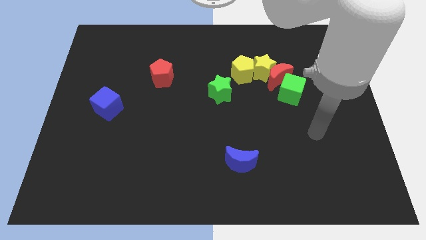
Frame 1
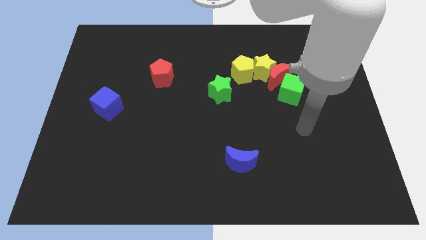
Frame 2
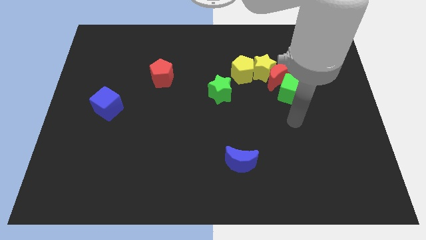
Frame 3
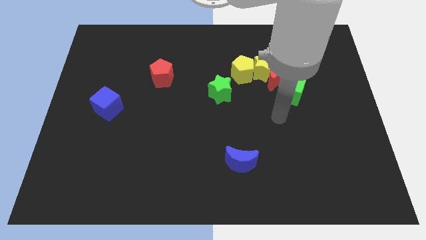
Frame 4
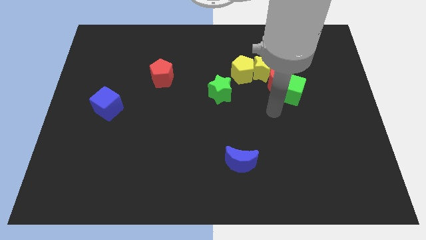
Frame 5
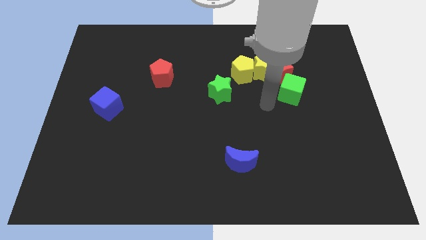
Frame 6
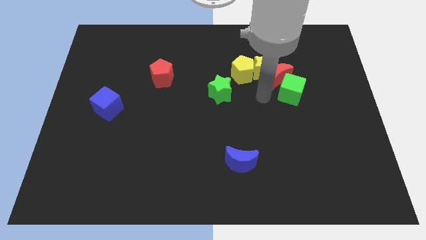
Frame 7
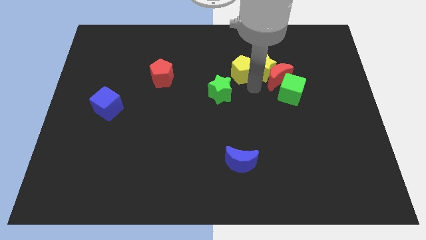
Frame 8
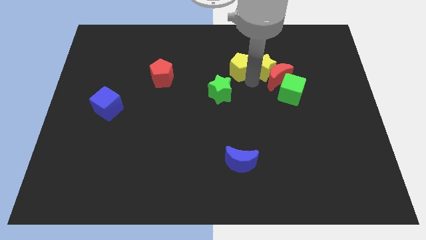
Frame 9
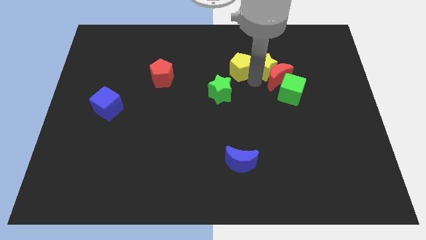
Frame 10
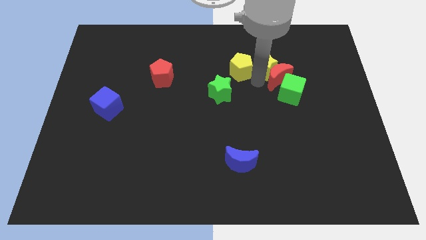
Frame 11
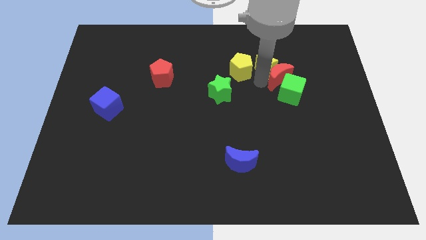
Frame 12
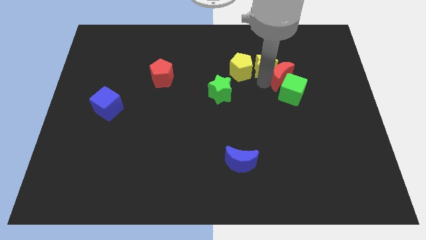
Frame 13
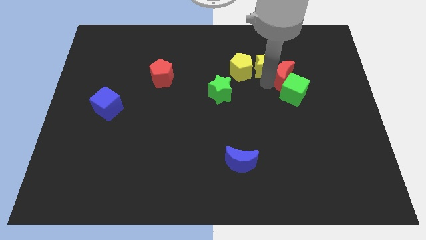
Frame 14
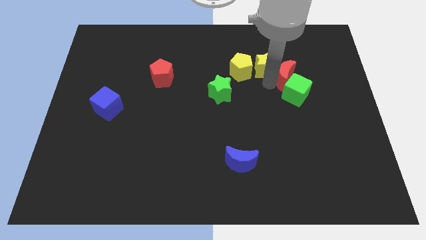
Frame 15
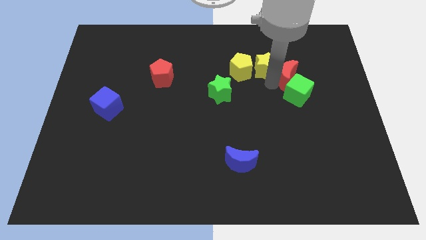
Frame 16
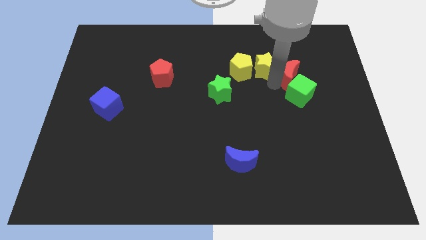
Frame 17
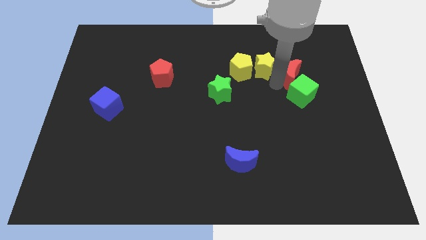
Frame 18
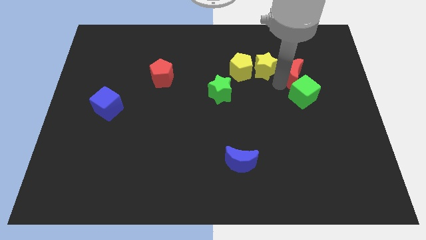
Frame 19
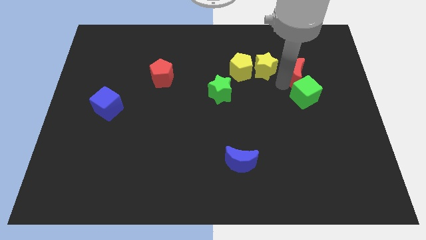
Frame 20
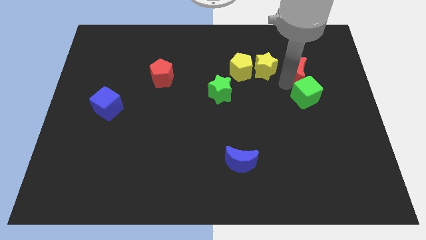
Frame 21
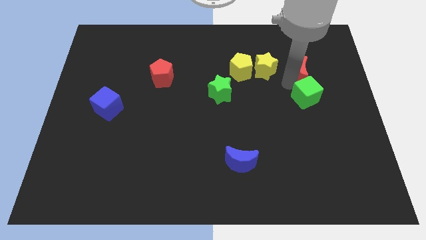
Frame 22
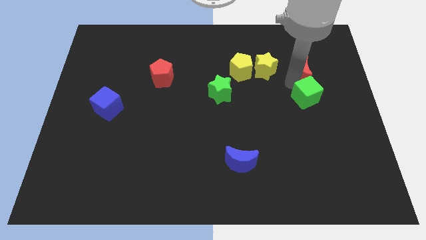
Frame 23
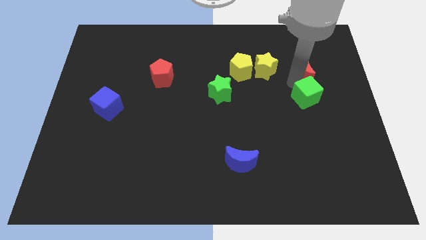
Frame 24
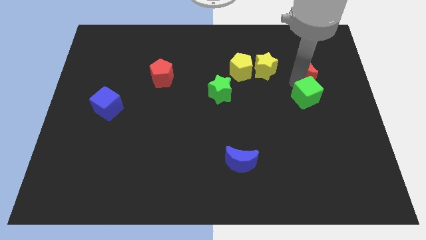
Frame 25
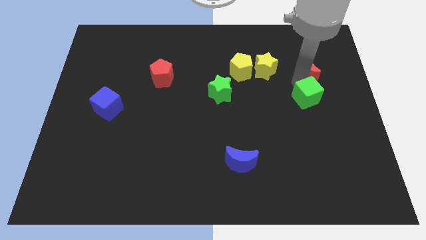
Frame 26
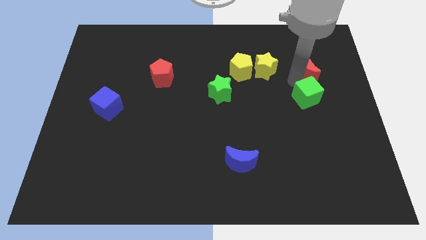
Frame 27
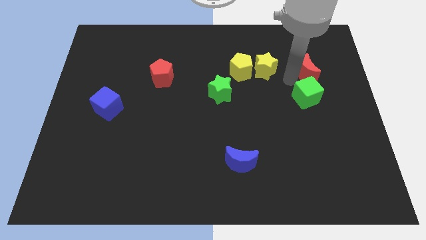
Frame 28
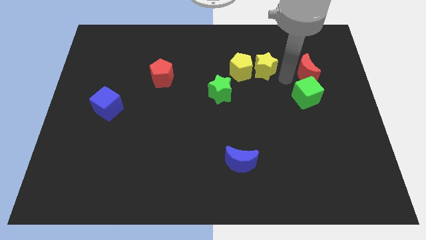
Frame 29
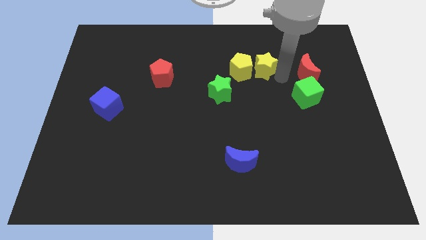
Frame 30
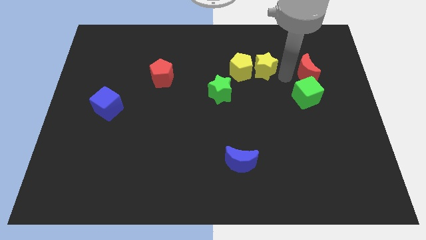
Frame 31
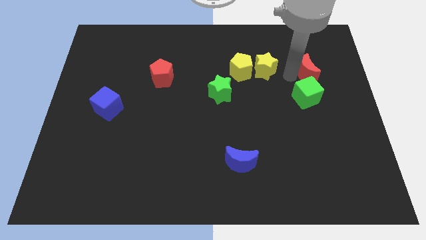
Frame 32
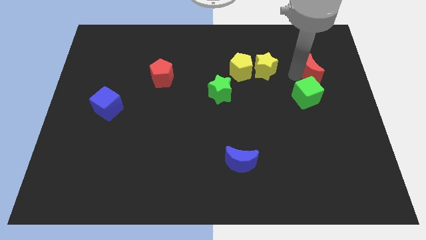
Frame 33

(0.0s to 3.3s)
pull the red moon apart from the group of blocks

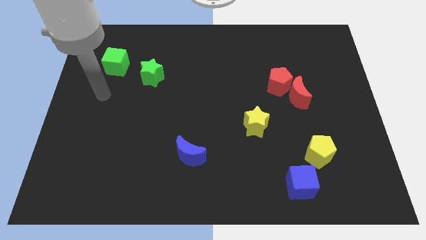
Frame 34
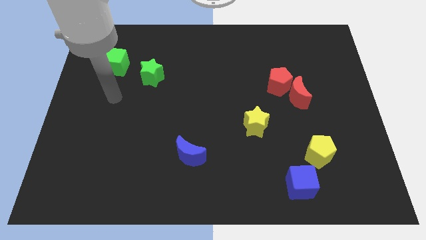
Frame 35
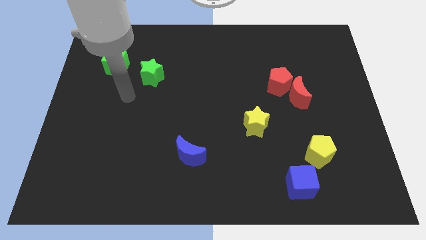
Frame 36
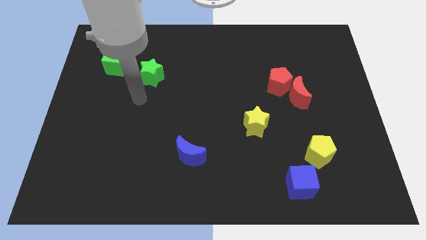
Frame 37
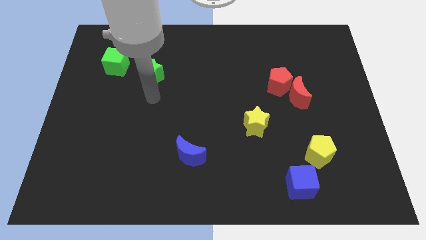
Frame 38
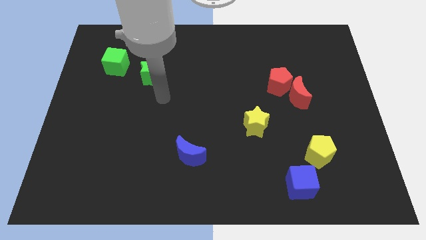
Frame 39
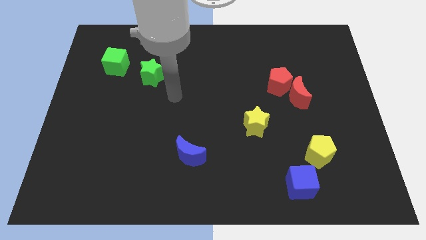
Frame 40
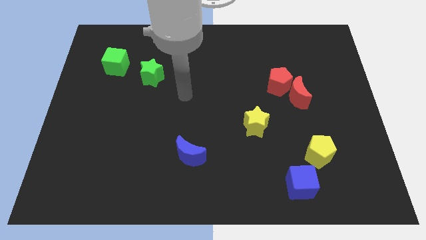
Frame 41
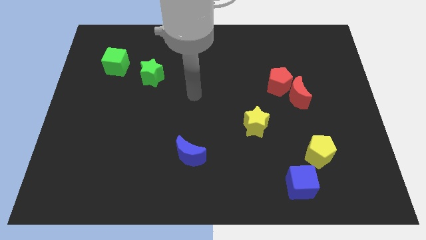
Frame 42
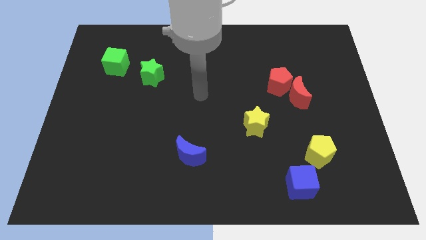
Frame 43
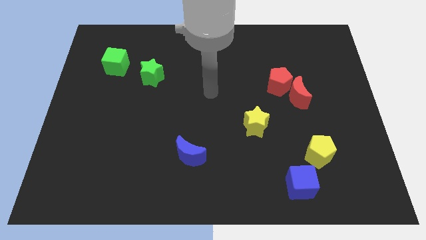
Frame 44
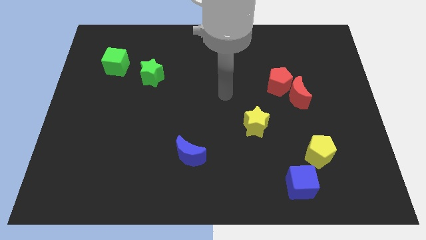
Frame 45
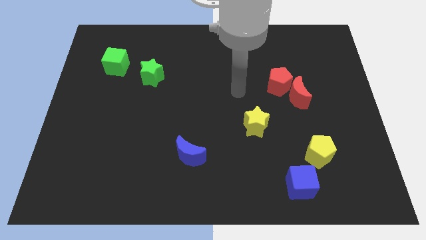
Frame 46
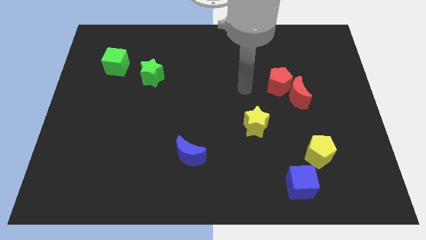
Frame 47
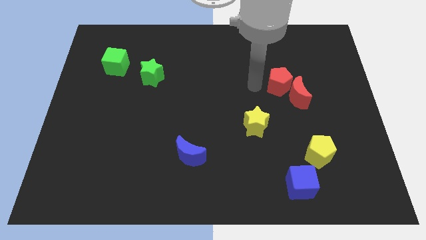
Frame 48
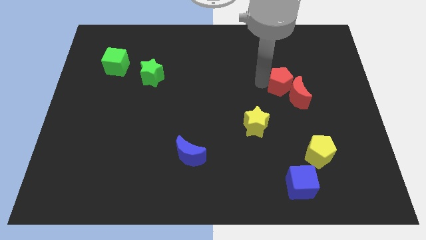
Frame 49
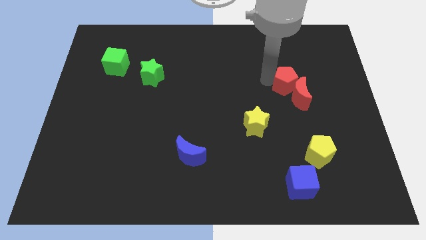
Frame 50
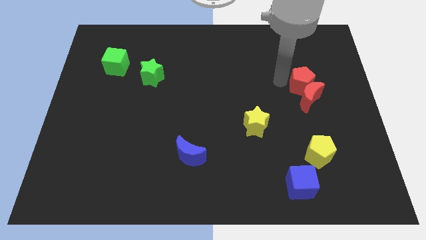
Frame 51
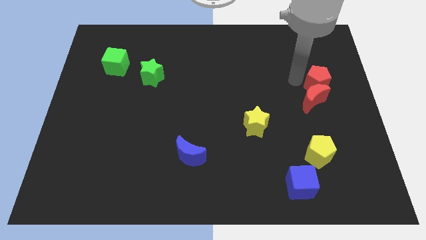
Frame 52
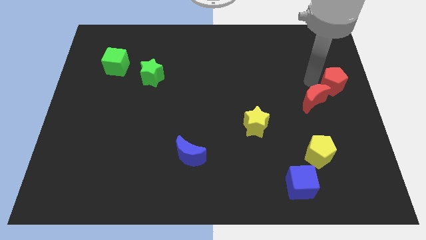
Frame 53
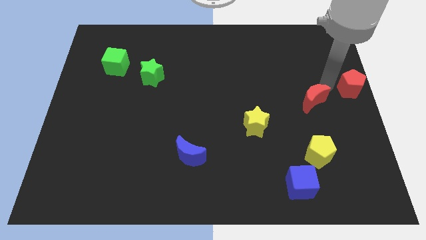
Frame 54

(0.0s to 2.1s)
move the red moon away from the red pentagon

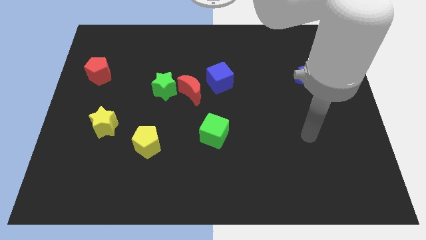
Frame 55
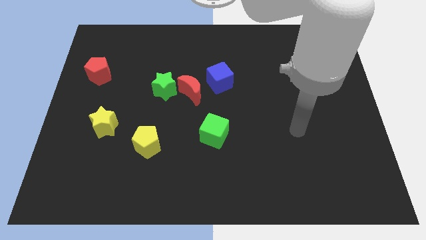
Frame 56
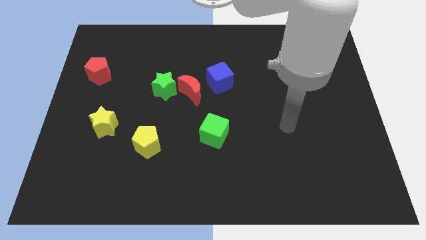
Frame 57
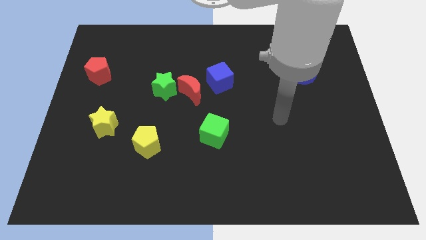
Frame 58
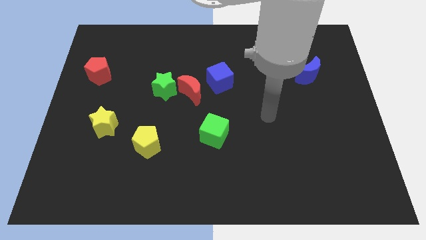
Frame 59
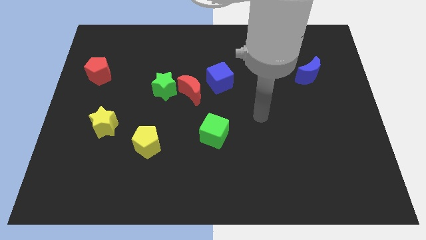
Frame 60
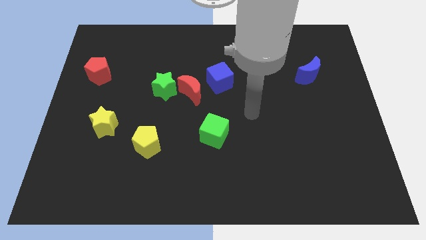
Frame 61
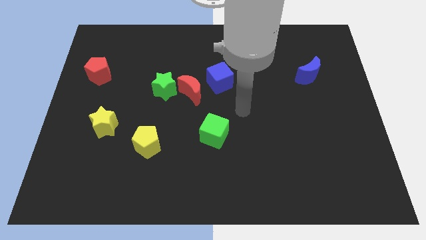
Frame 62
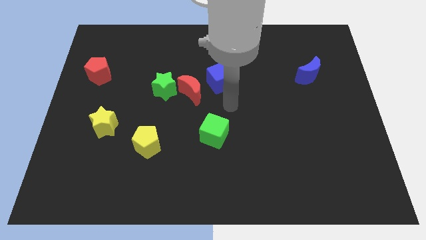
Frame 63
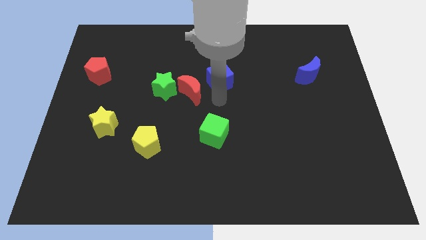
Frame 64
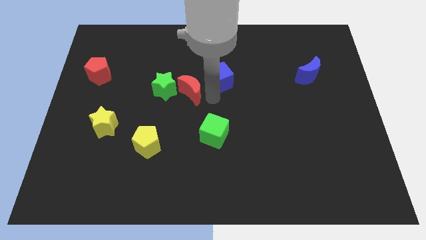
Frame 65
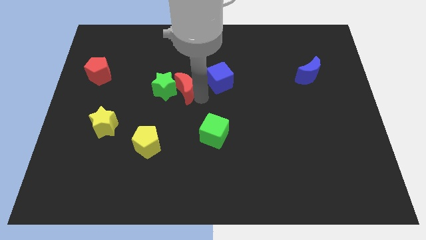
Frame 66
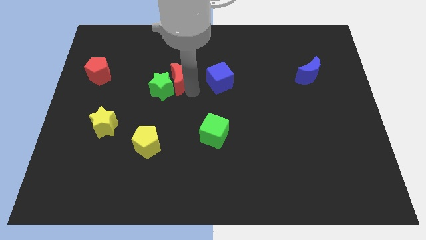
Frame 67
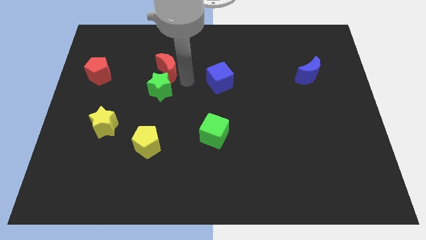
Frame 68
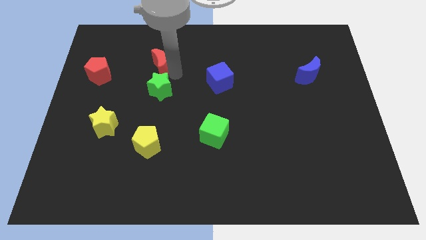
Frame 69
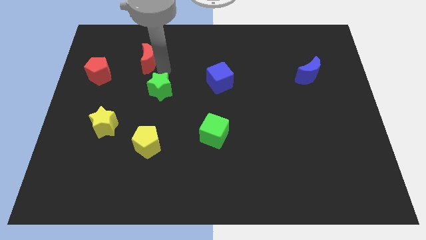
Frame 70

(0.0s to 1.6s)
pull the green star apart from the red moon

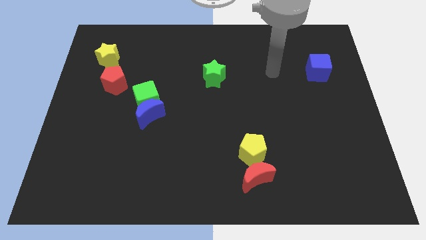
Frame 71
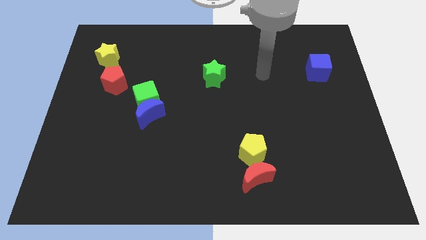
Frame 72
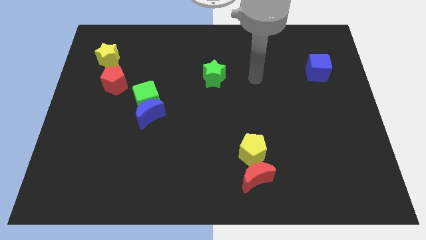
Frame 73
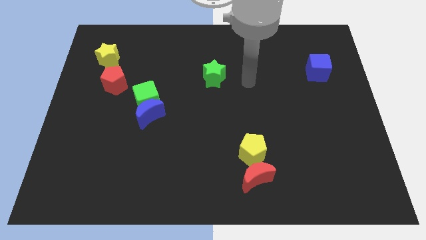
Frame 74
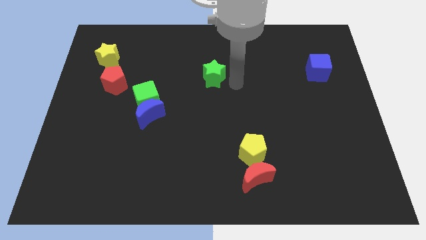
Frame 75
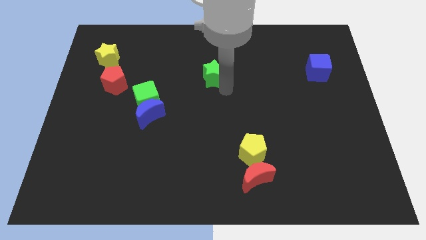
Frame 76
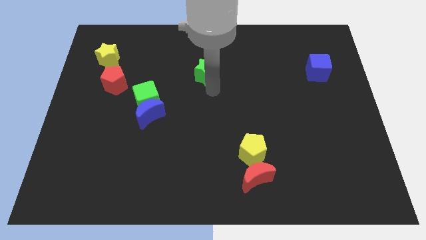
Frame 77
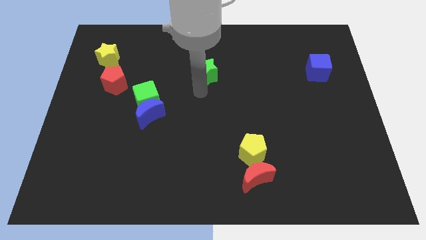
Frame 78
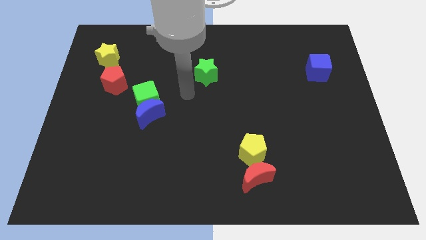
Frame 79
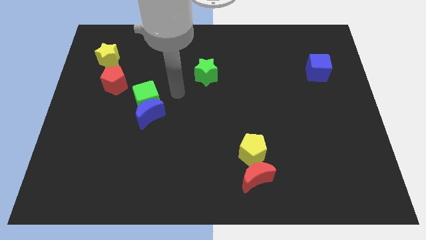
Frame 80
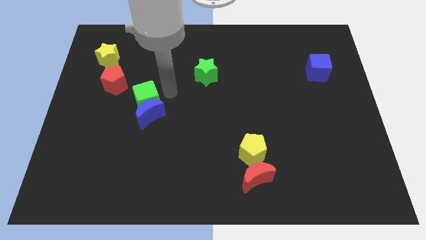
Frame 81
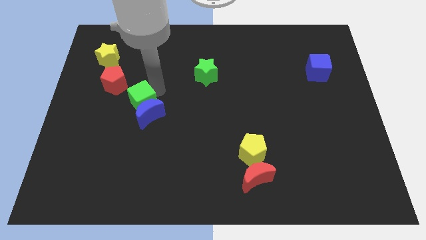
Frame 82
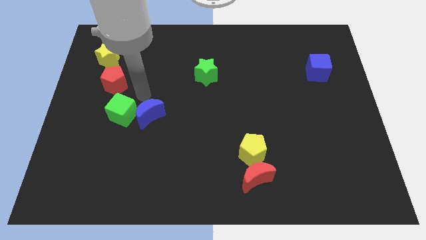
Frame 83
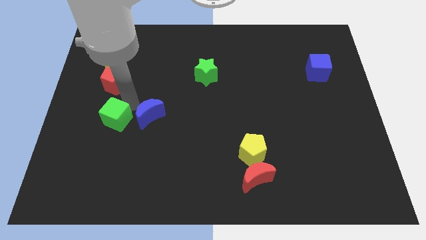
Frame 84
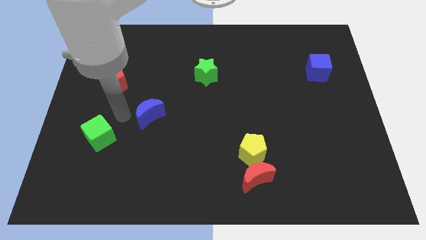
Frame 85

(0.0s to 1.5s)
separate the blue moon from the green cube

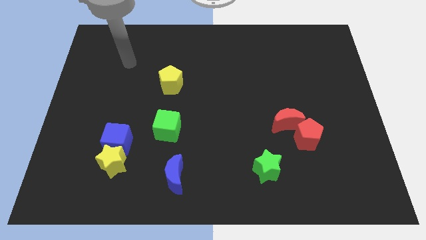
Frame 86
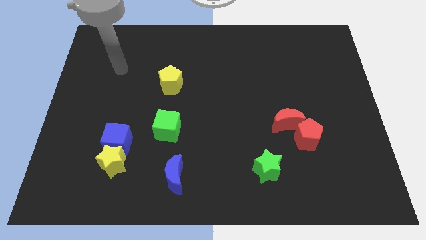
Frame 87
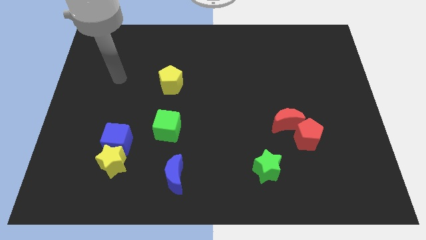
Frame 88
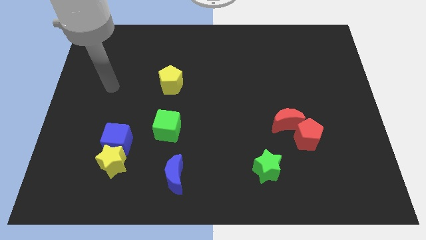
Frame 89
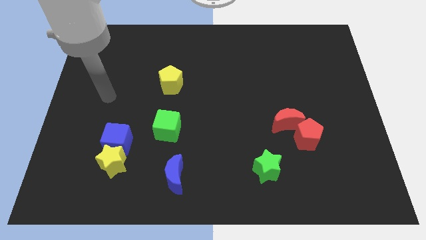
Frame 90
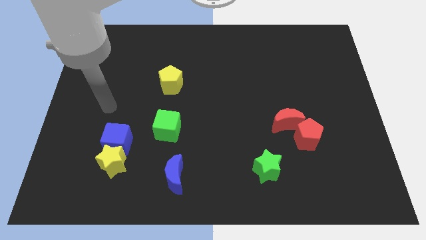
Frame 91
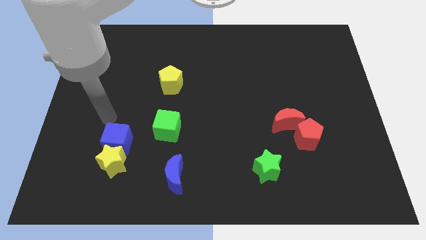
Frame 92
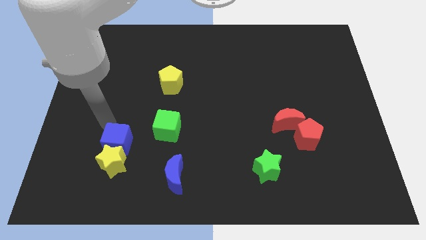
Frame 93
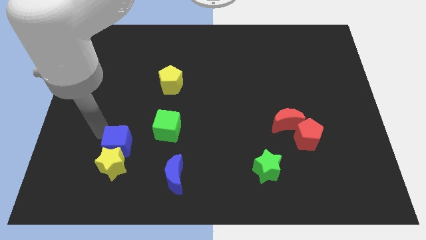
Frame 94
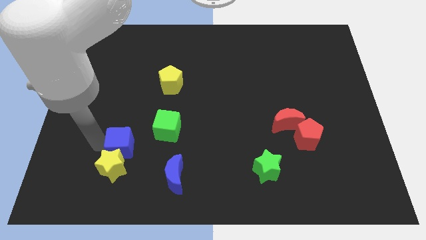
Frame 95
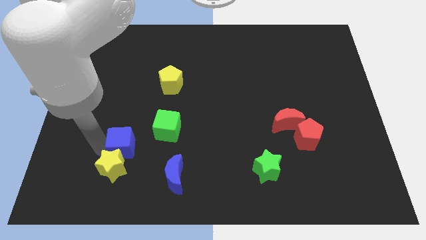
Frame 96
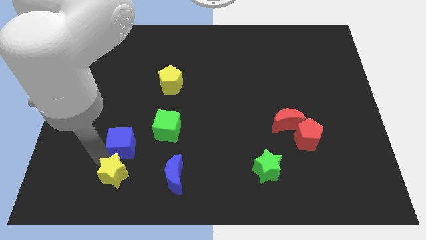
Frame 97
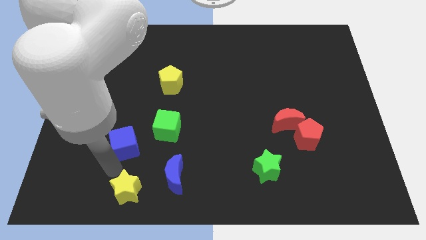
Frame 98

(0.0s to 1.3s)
separate the blue cube from the yellow star
